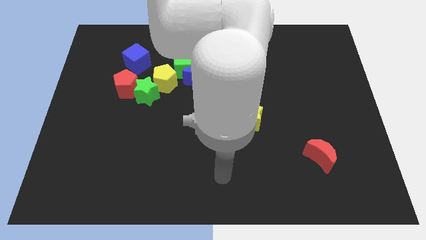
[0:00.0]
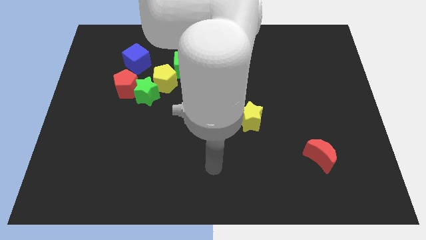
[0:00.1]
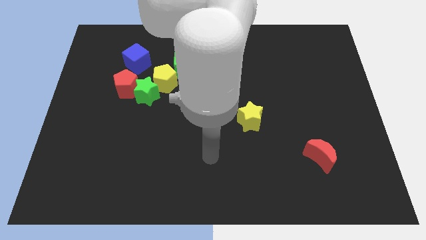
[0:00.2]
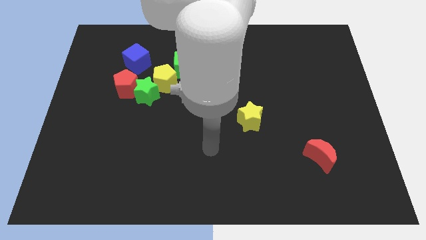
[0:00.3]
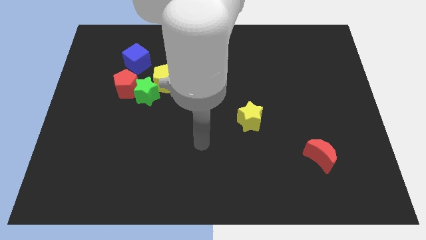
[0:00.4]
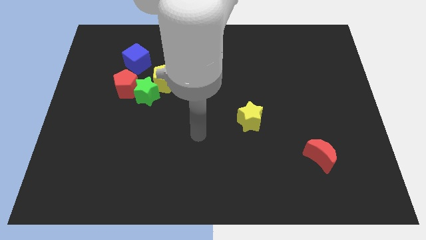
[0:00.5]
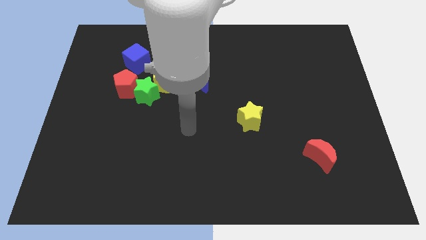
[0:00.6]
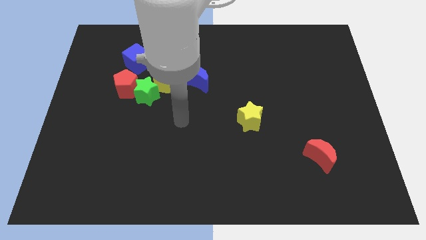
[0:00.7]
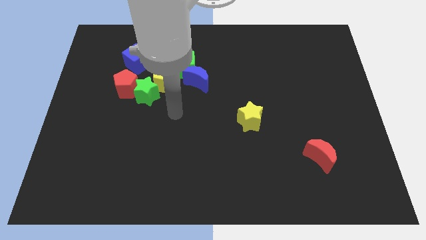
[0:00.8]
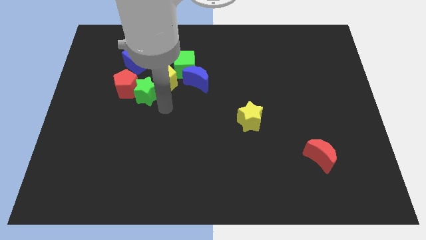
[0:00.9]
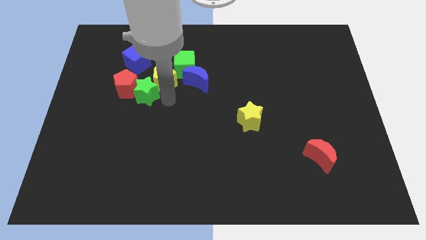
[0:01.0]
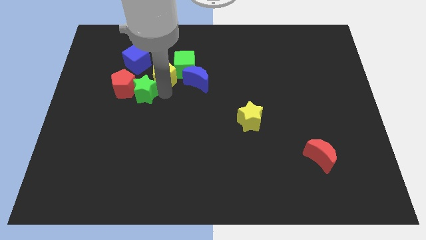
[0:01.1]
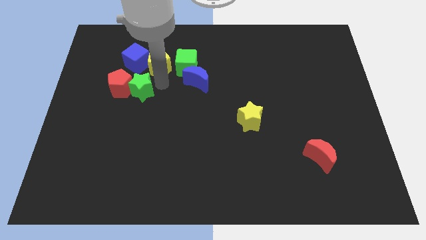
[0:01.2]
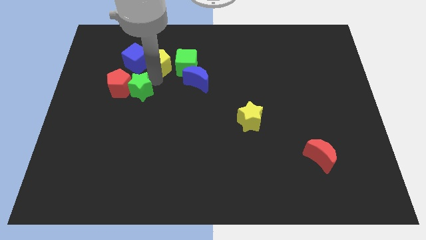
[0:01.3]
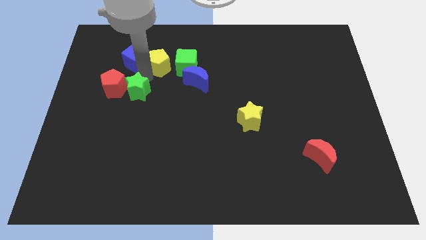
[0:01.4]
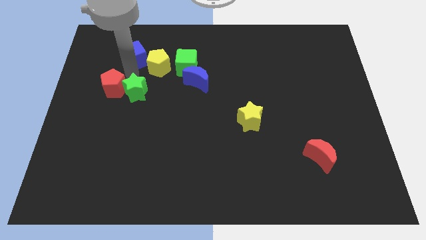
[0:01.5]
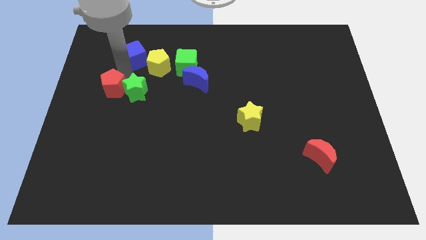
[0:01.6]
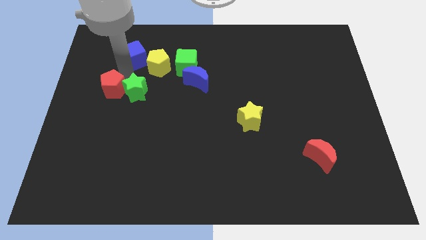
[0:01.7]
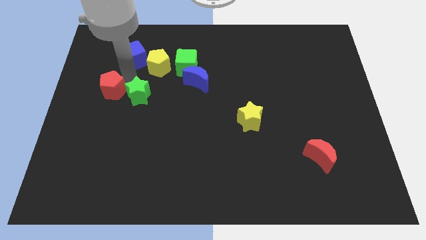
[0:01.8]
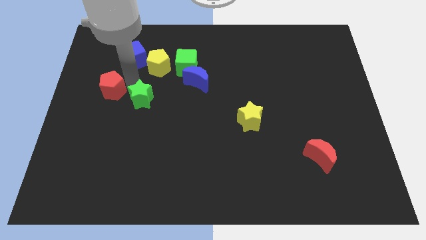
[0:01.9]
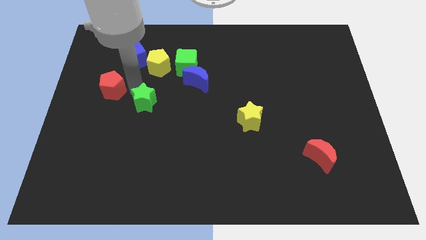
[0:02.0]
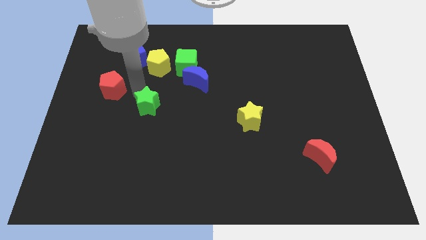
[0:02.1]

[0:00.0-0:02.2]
move the green star away from the red pentagon and yellow pentagon

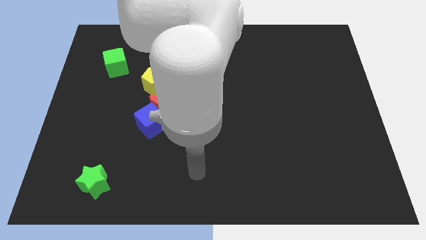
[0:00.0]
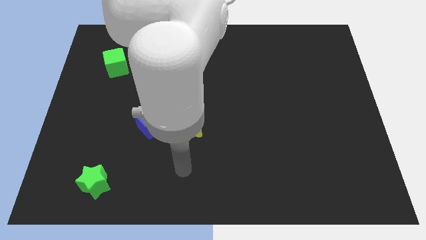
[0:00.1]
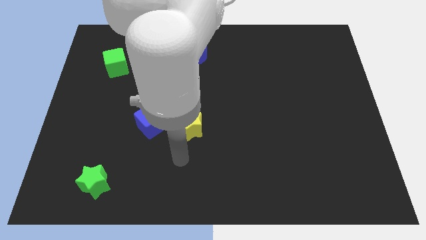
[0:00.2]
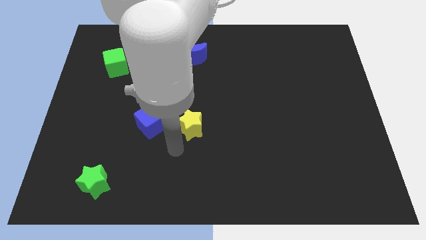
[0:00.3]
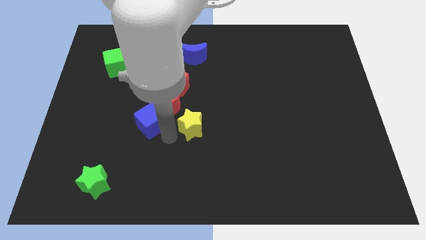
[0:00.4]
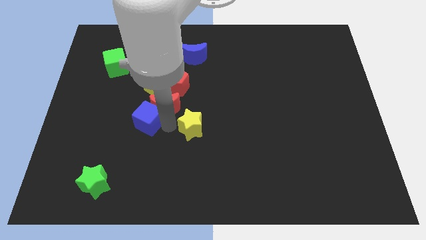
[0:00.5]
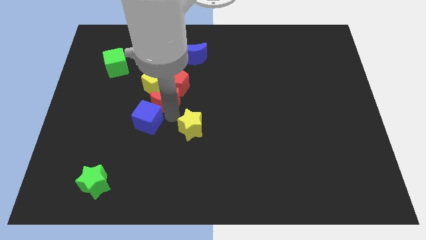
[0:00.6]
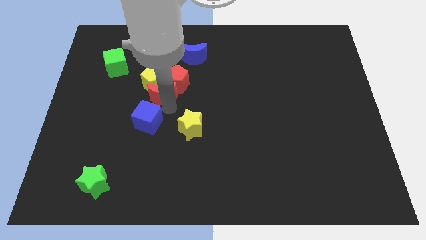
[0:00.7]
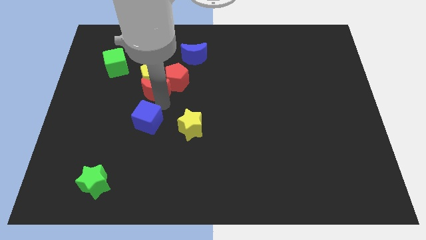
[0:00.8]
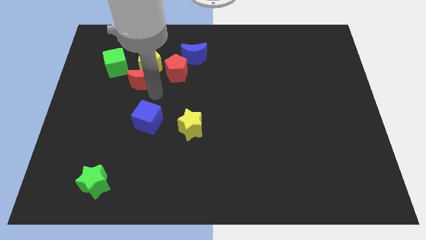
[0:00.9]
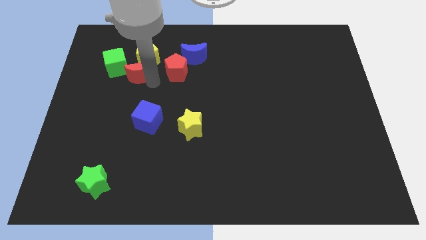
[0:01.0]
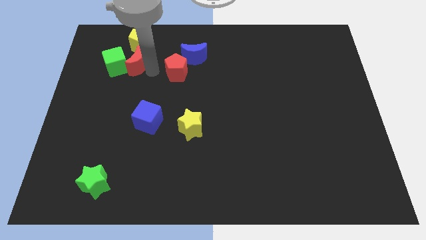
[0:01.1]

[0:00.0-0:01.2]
move the red pentagon away from the yellow pentagon and red moon

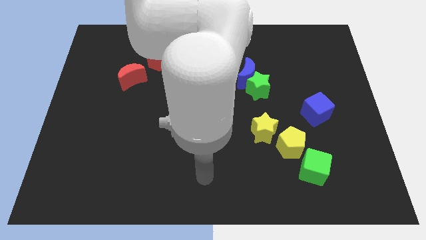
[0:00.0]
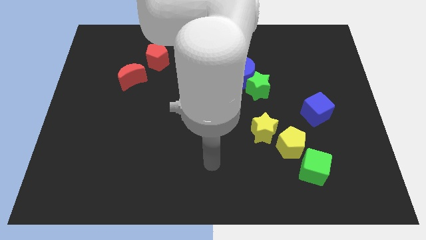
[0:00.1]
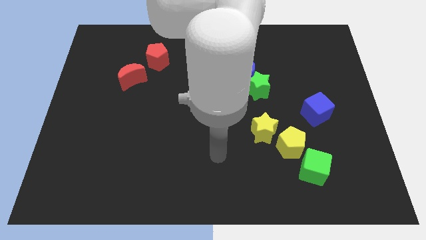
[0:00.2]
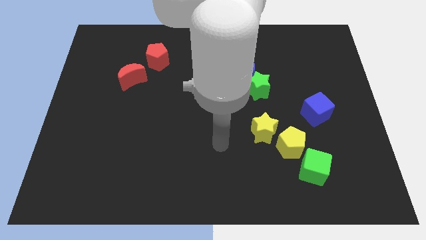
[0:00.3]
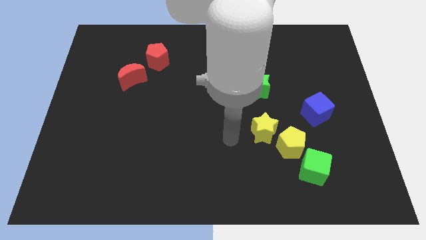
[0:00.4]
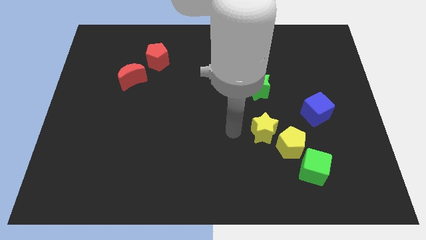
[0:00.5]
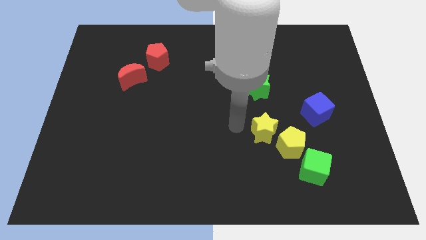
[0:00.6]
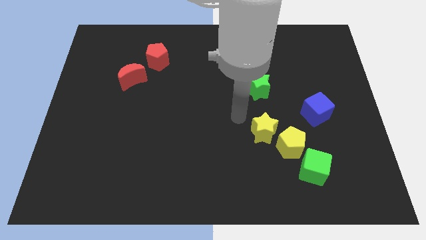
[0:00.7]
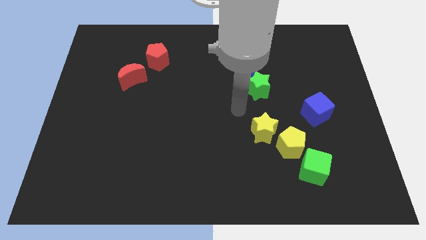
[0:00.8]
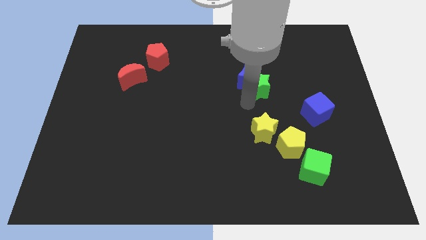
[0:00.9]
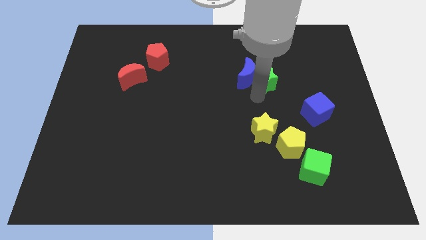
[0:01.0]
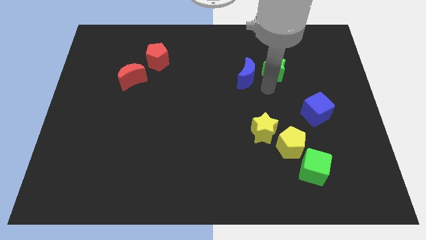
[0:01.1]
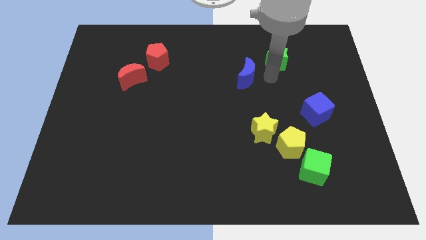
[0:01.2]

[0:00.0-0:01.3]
pull the blue moon apart from the green star

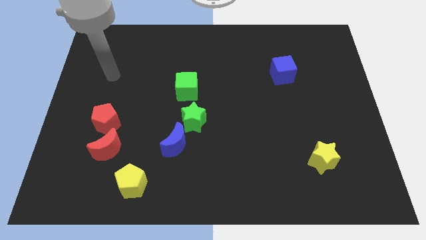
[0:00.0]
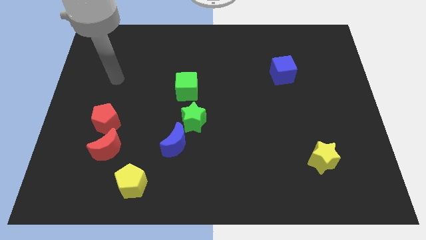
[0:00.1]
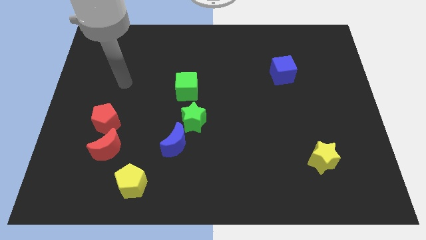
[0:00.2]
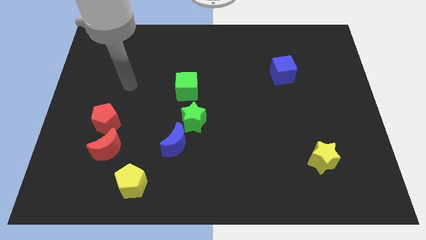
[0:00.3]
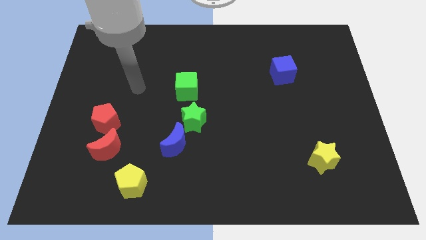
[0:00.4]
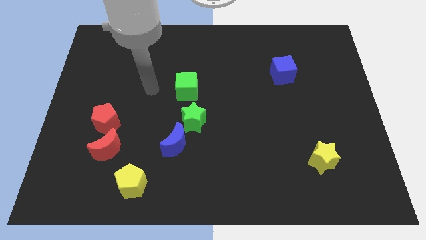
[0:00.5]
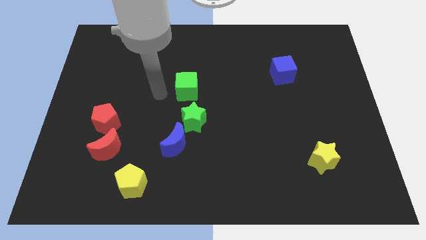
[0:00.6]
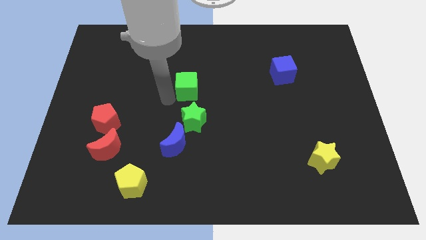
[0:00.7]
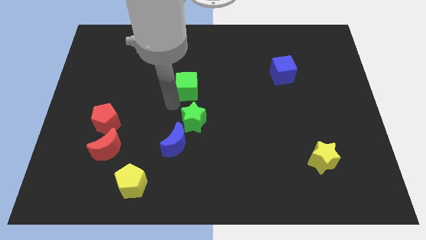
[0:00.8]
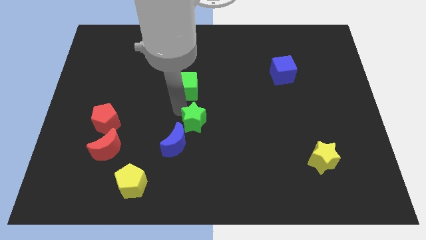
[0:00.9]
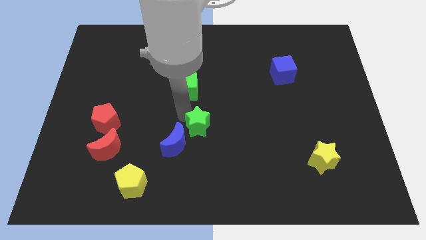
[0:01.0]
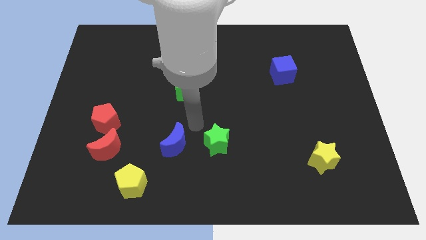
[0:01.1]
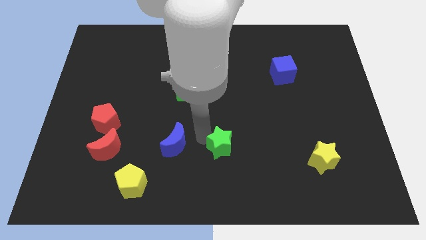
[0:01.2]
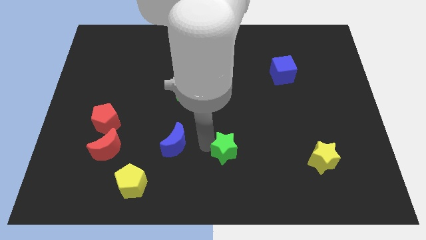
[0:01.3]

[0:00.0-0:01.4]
separate the blue moon from the green star

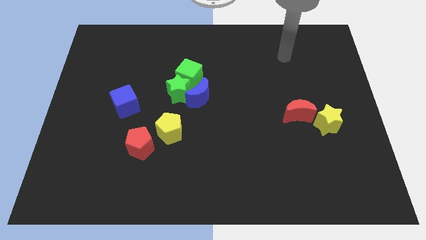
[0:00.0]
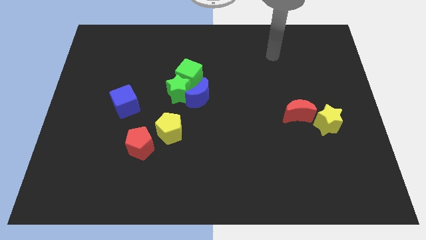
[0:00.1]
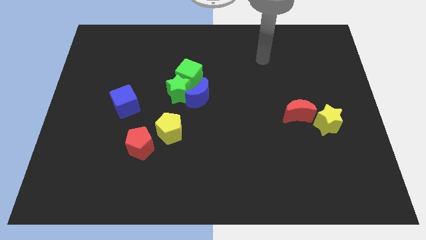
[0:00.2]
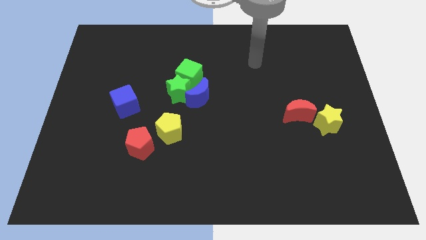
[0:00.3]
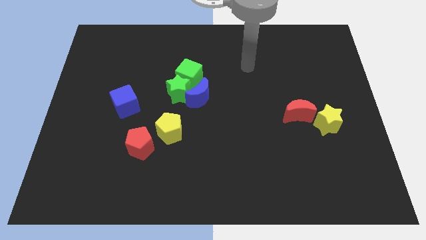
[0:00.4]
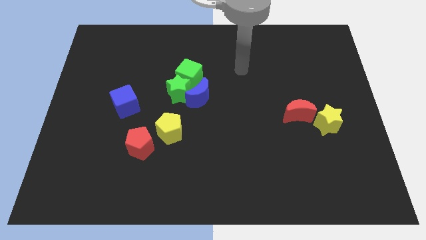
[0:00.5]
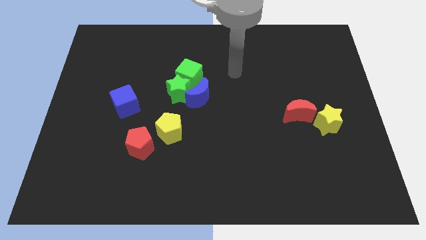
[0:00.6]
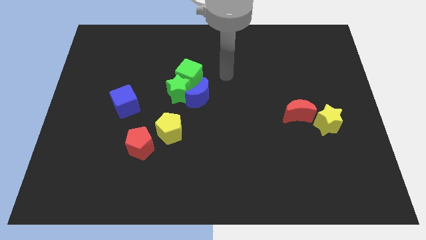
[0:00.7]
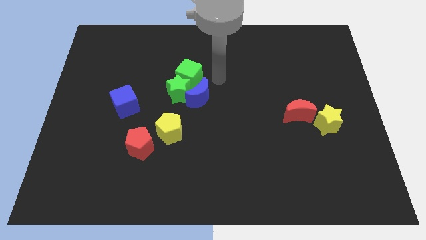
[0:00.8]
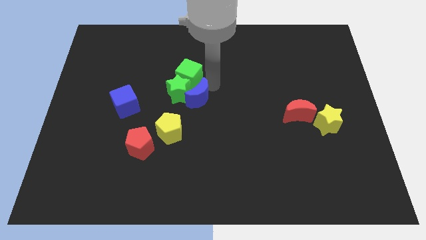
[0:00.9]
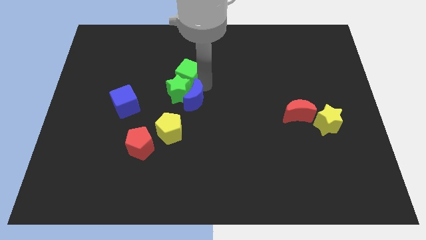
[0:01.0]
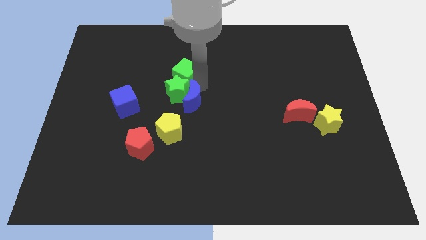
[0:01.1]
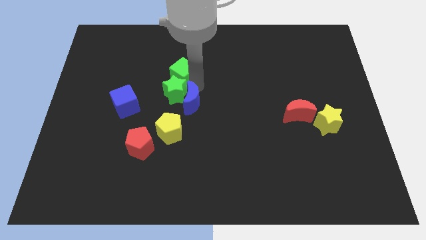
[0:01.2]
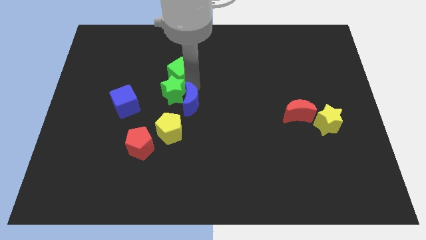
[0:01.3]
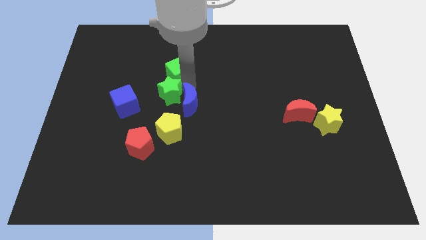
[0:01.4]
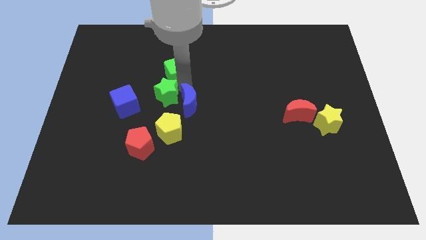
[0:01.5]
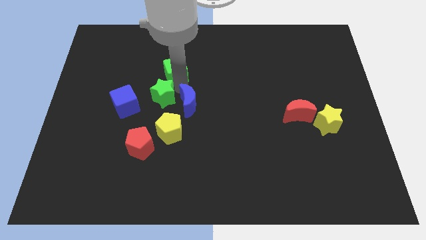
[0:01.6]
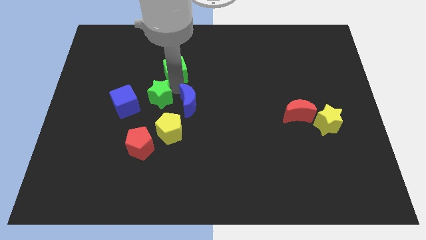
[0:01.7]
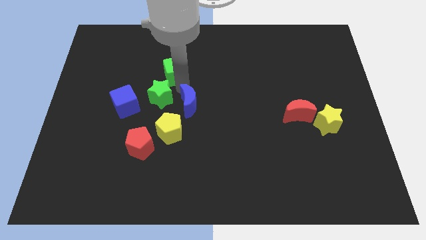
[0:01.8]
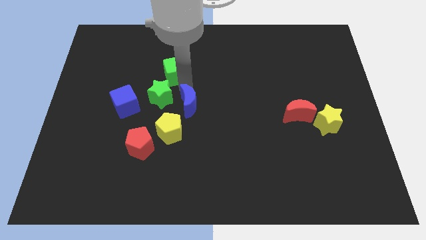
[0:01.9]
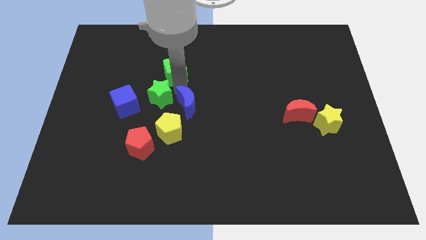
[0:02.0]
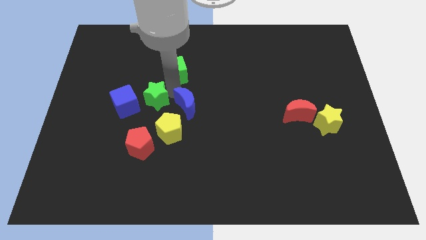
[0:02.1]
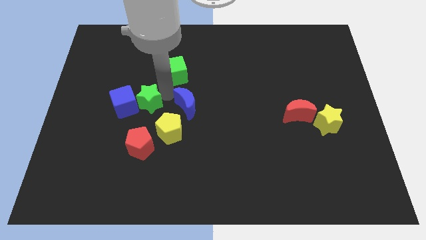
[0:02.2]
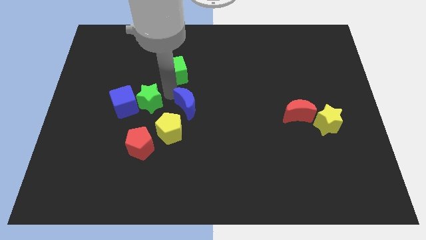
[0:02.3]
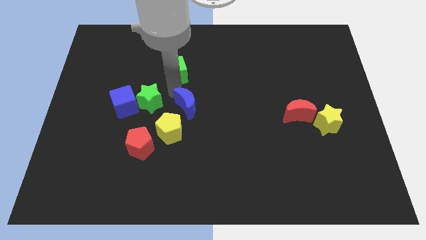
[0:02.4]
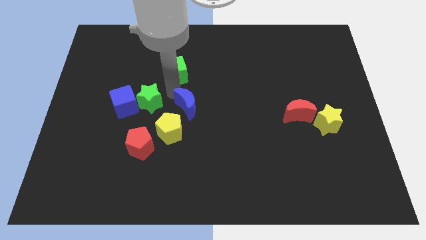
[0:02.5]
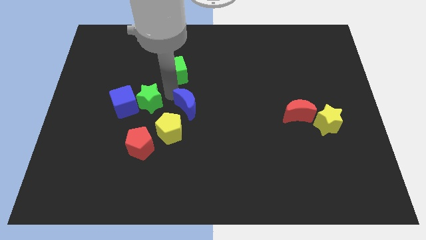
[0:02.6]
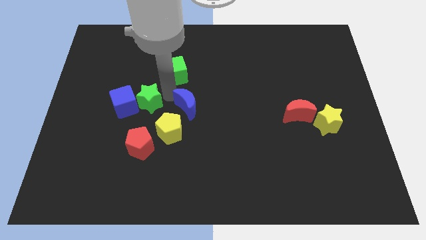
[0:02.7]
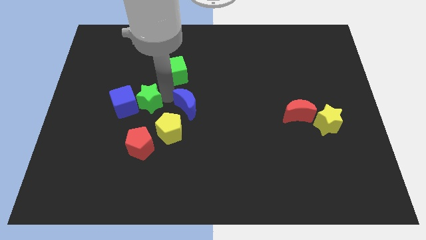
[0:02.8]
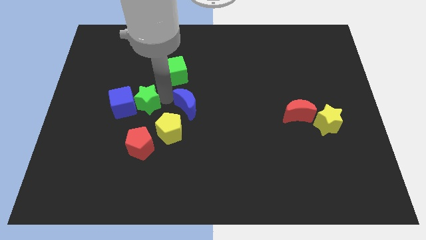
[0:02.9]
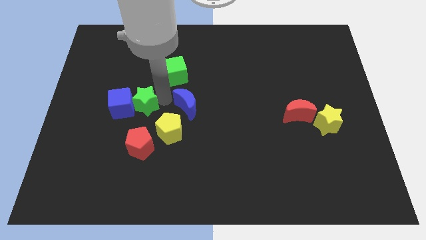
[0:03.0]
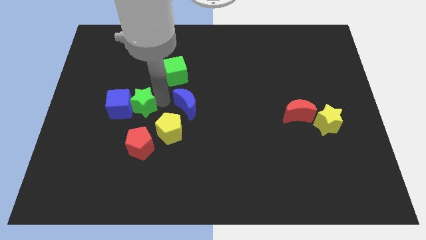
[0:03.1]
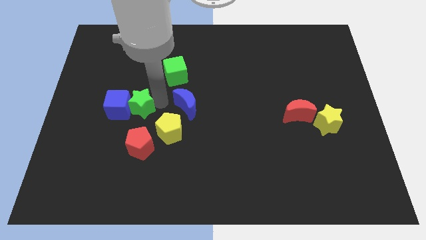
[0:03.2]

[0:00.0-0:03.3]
separate the green star from the green cube and blue moon
